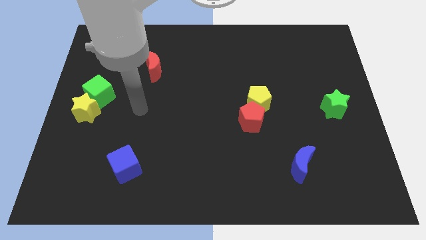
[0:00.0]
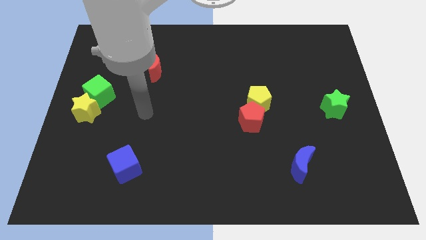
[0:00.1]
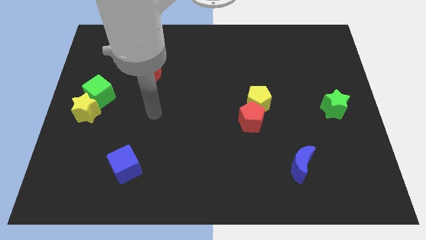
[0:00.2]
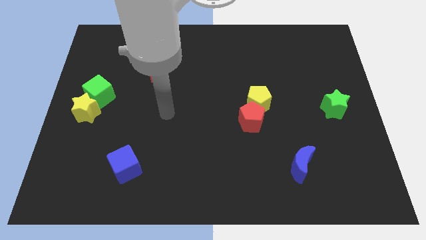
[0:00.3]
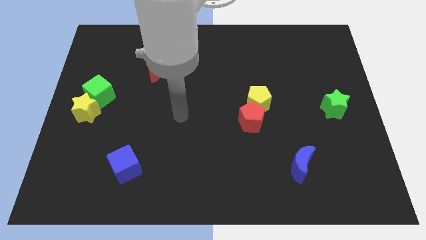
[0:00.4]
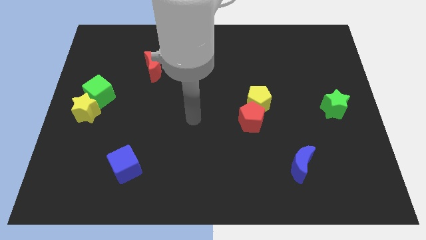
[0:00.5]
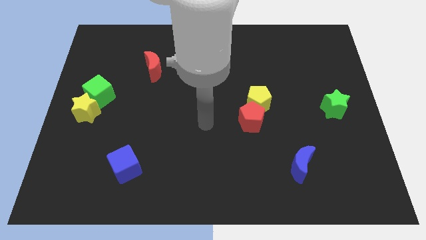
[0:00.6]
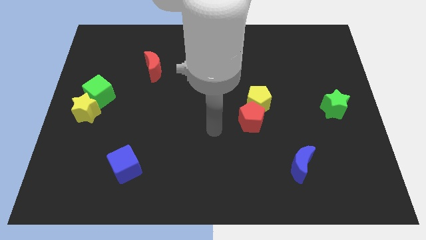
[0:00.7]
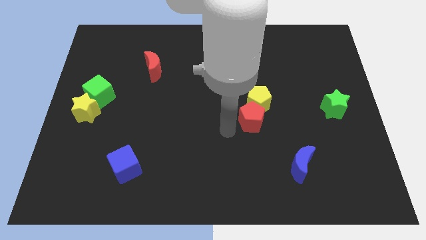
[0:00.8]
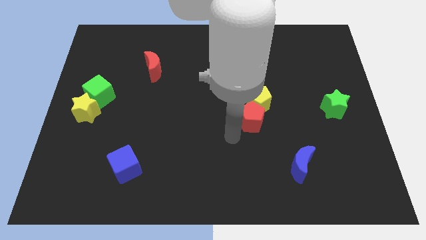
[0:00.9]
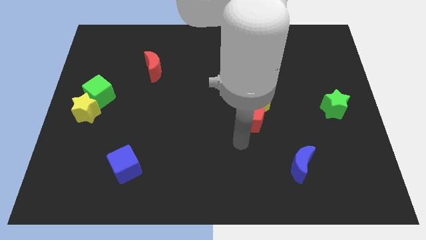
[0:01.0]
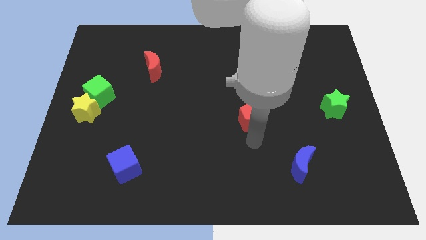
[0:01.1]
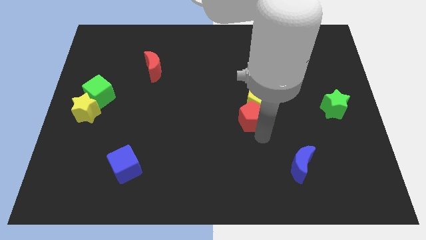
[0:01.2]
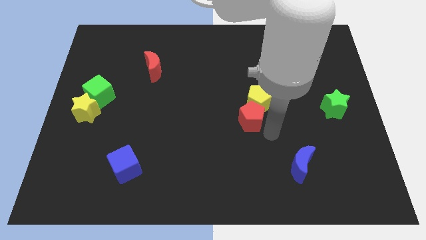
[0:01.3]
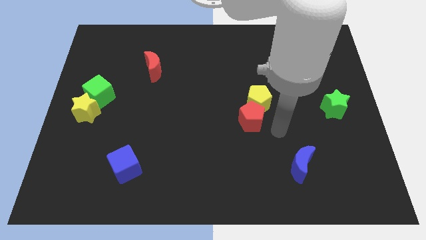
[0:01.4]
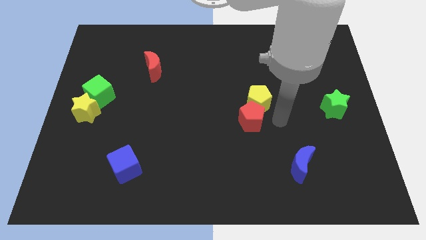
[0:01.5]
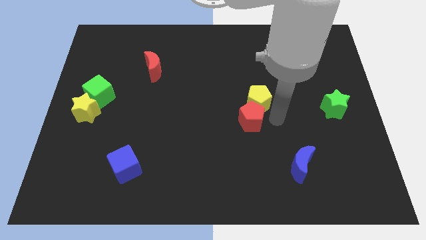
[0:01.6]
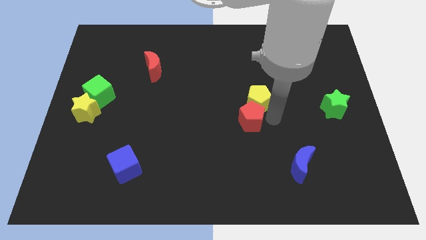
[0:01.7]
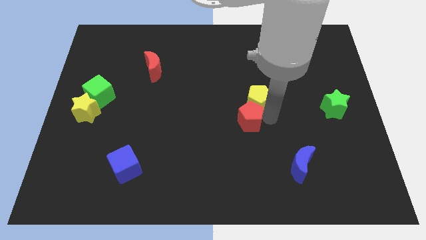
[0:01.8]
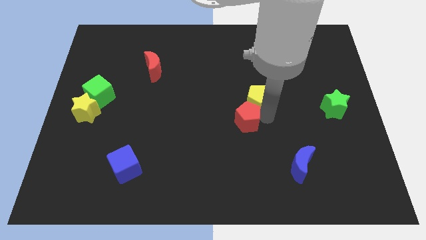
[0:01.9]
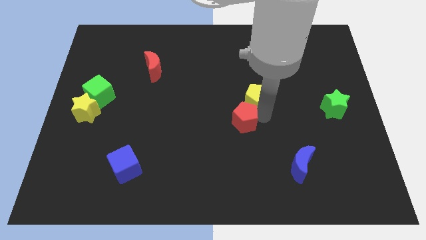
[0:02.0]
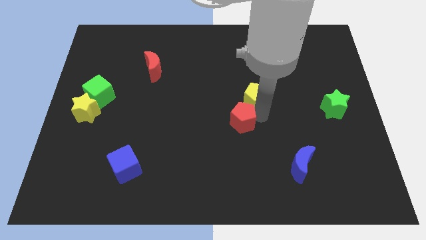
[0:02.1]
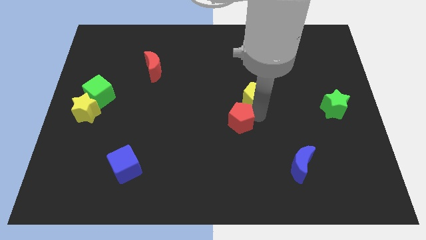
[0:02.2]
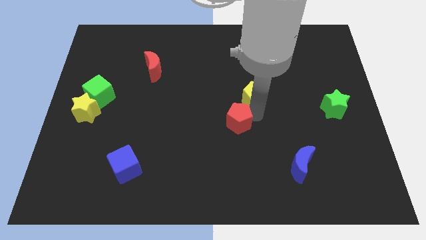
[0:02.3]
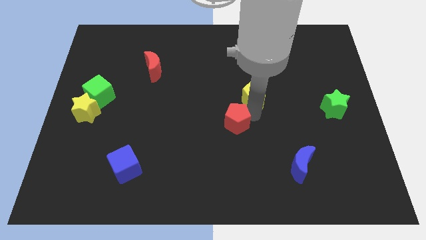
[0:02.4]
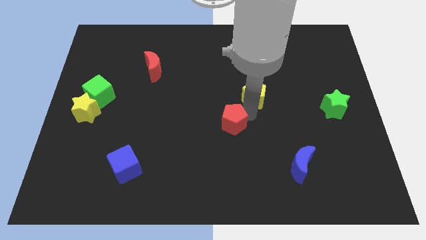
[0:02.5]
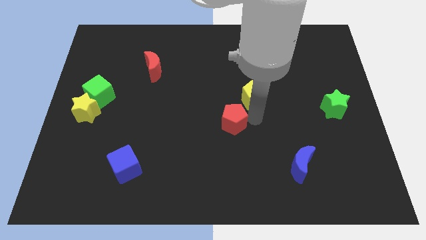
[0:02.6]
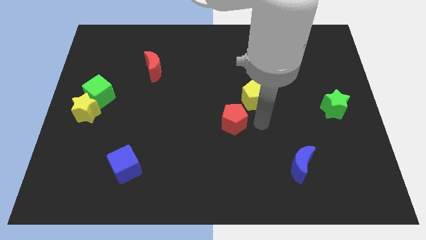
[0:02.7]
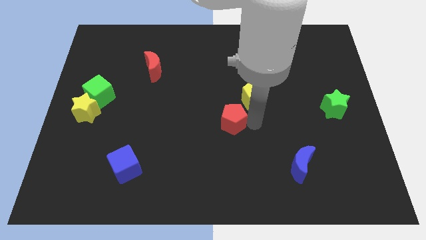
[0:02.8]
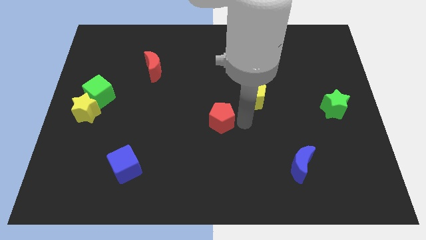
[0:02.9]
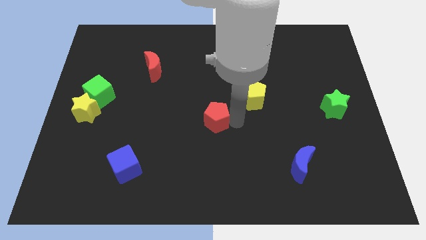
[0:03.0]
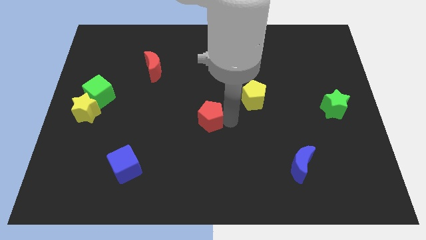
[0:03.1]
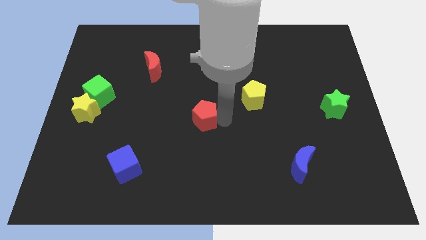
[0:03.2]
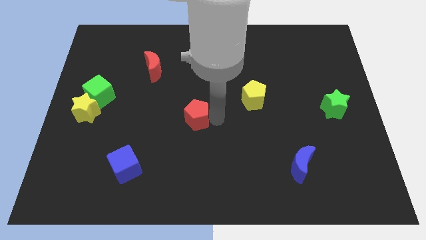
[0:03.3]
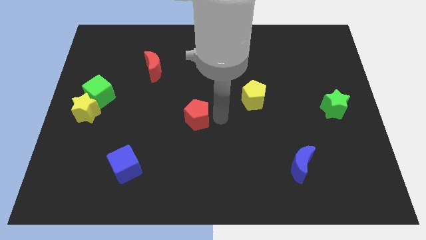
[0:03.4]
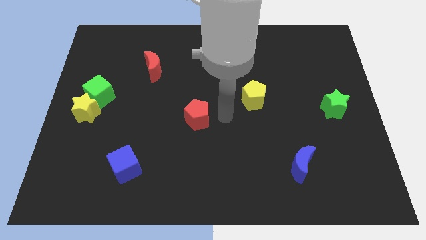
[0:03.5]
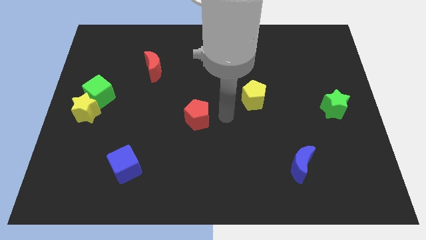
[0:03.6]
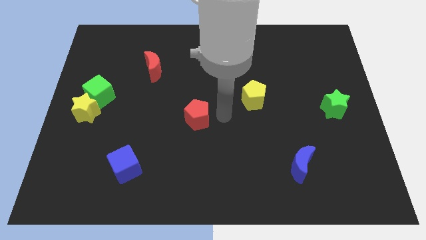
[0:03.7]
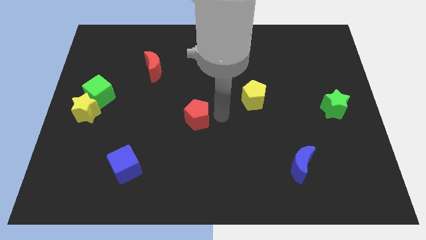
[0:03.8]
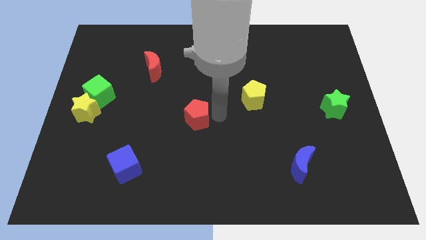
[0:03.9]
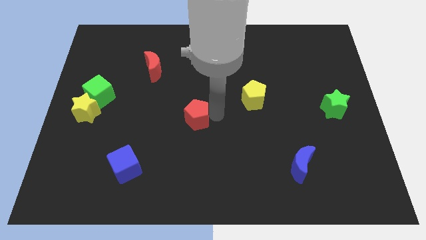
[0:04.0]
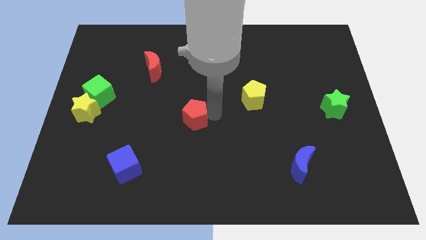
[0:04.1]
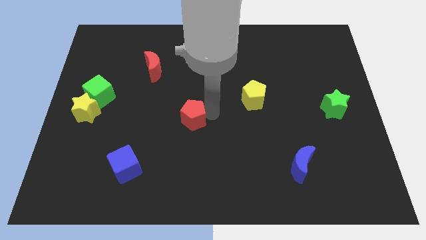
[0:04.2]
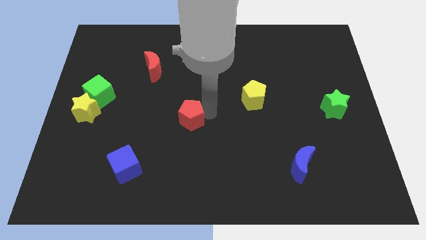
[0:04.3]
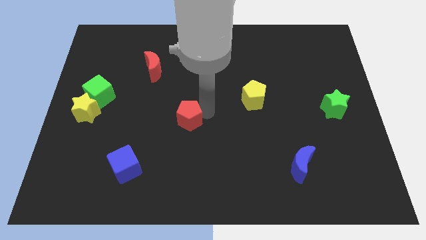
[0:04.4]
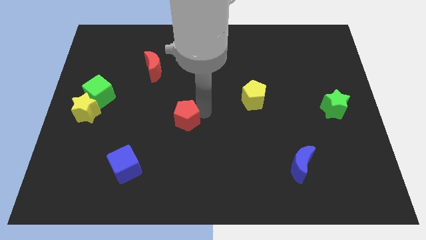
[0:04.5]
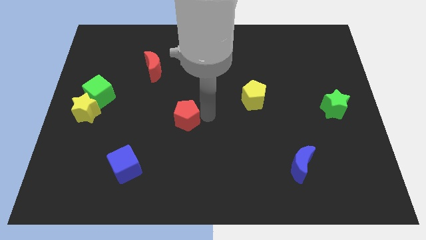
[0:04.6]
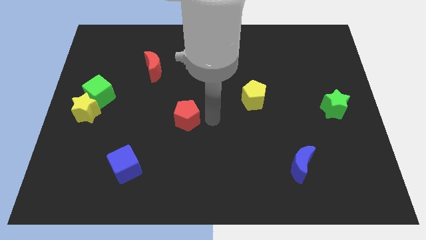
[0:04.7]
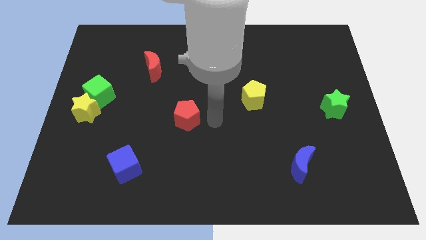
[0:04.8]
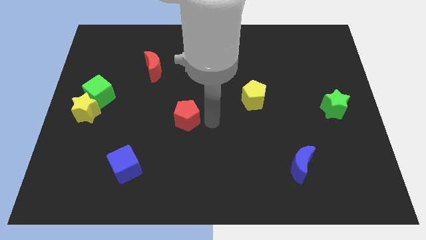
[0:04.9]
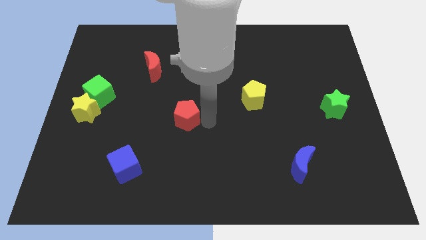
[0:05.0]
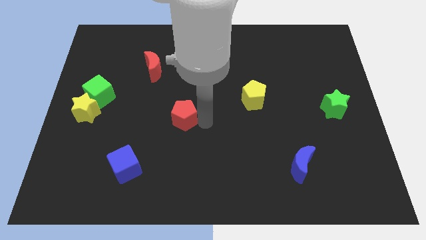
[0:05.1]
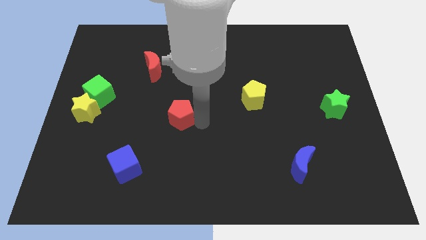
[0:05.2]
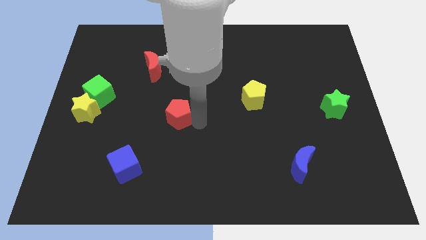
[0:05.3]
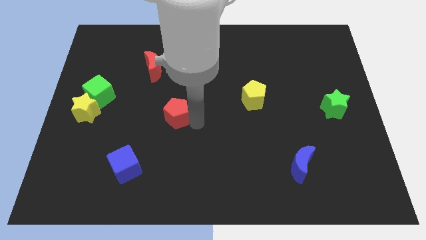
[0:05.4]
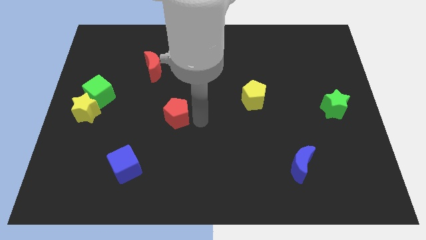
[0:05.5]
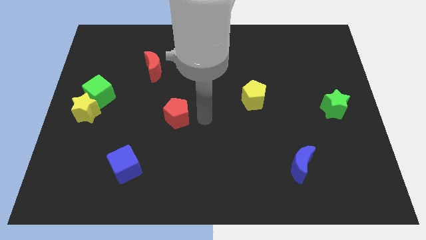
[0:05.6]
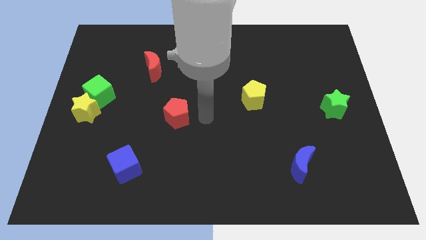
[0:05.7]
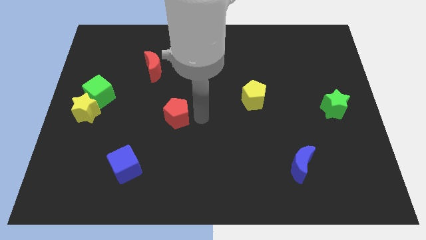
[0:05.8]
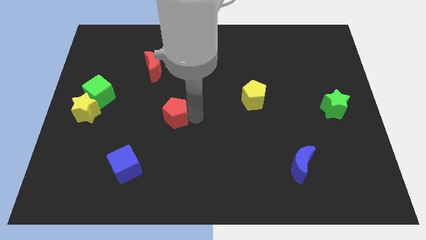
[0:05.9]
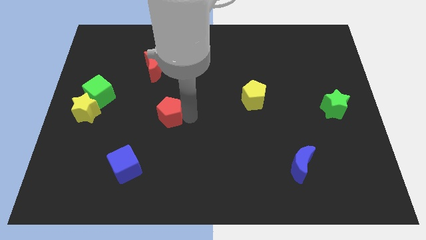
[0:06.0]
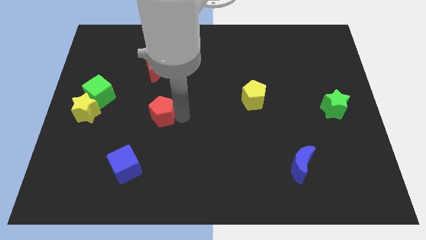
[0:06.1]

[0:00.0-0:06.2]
move the red pentagon to the left

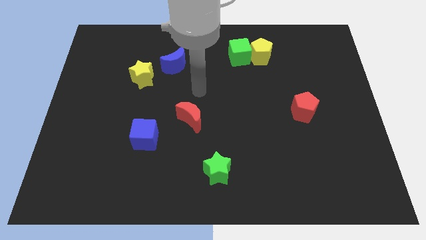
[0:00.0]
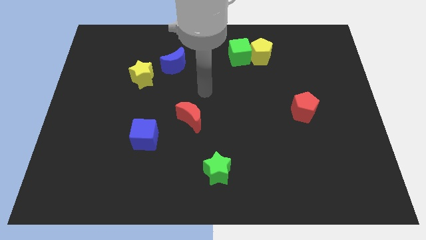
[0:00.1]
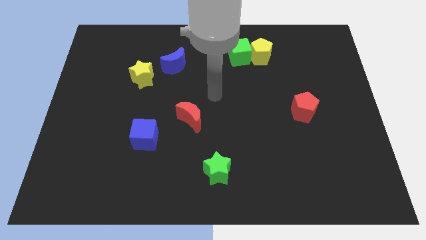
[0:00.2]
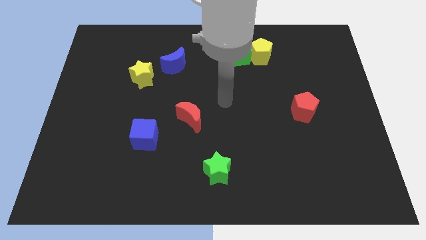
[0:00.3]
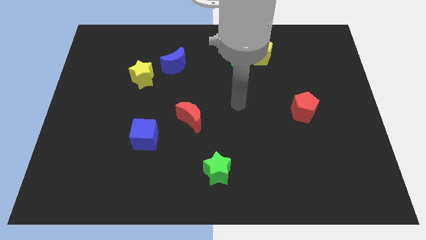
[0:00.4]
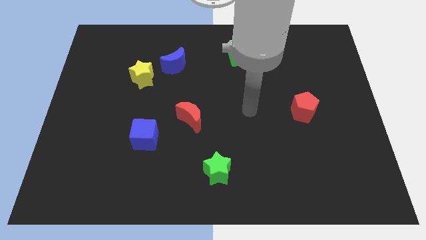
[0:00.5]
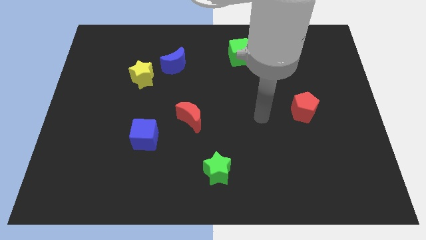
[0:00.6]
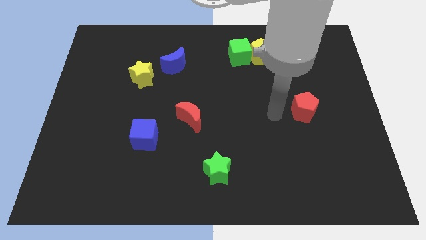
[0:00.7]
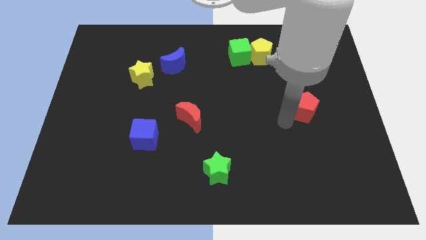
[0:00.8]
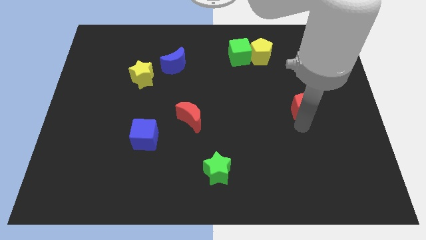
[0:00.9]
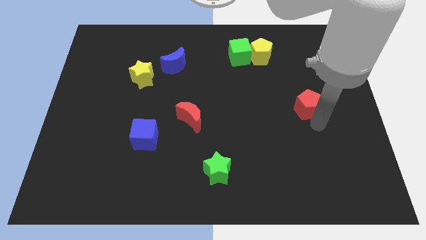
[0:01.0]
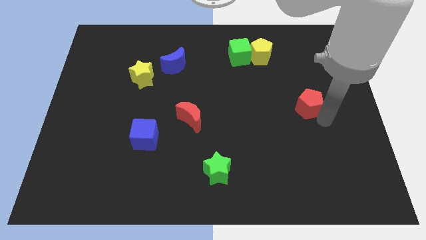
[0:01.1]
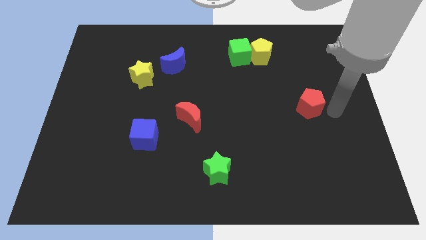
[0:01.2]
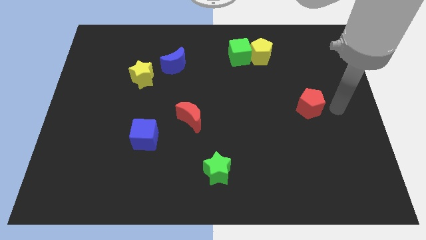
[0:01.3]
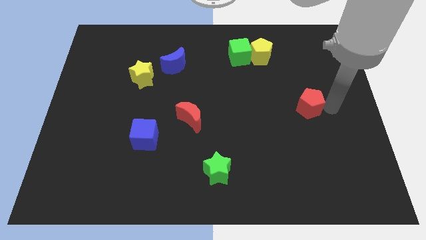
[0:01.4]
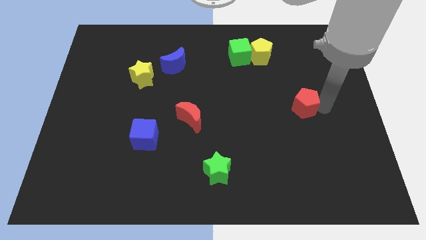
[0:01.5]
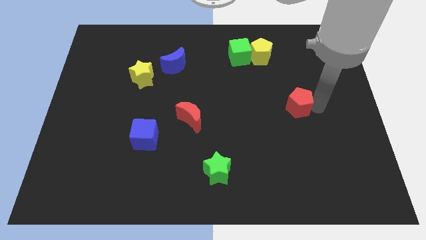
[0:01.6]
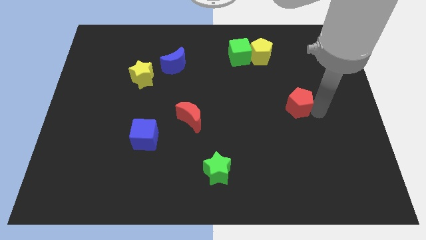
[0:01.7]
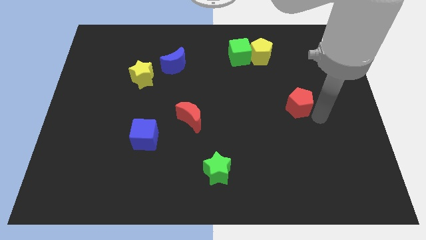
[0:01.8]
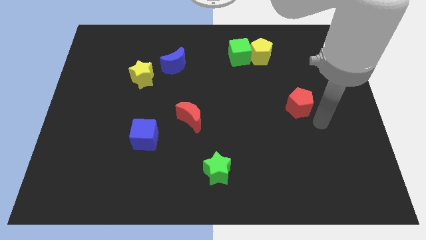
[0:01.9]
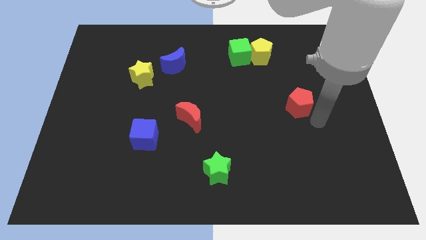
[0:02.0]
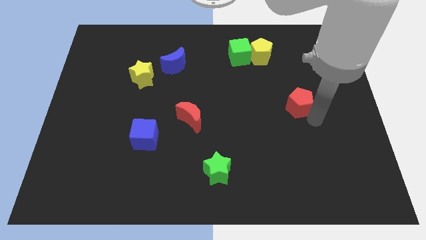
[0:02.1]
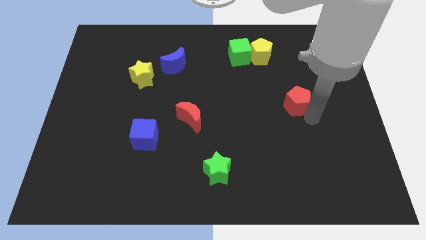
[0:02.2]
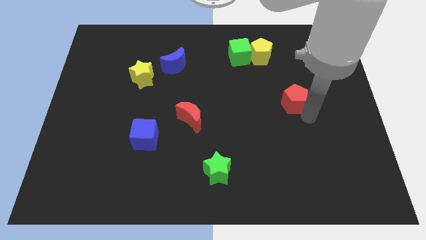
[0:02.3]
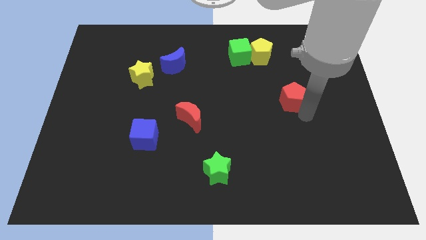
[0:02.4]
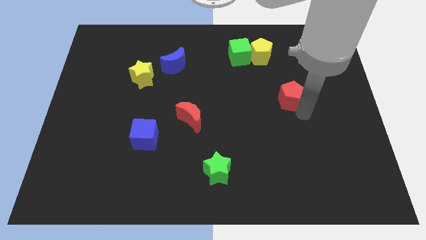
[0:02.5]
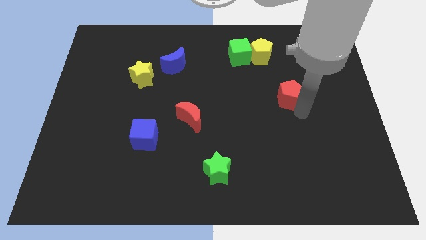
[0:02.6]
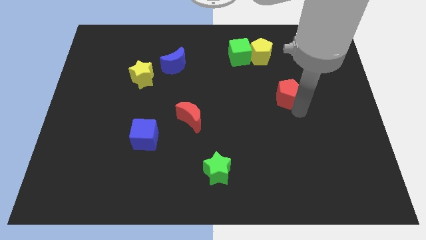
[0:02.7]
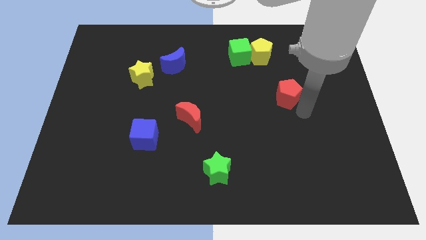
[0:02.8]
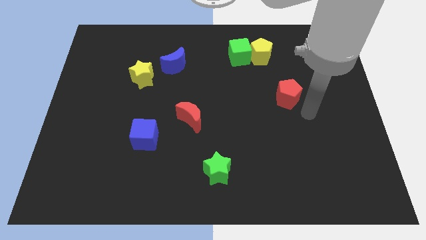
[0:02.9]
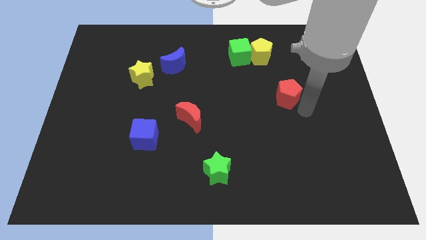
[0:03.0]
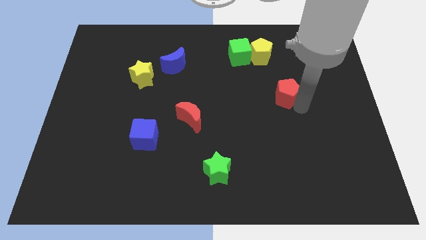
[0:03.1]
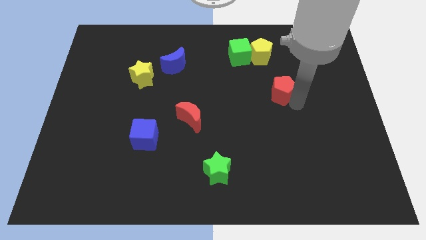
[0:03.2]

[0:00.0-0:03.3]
slightly move the red pentagon up and to the left diagonally
